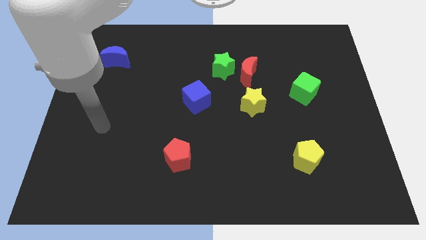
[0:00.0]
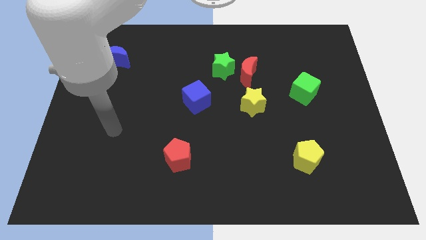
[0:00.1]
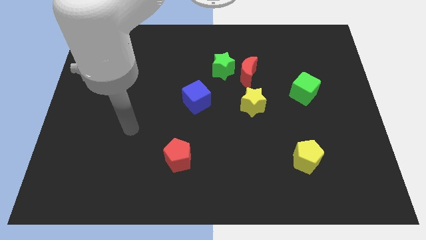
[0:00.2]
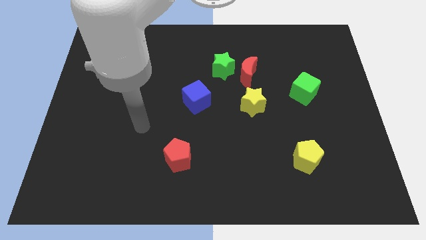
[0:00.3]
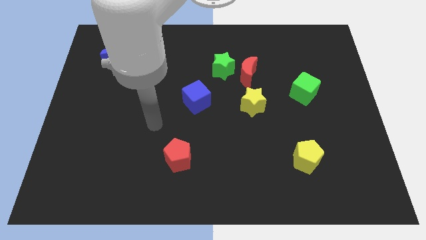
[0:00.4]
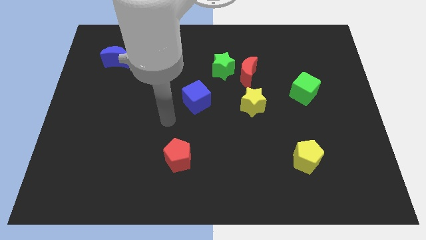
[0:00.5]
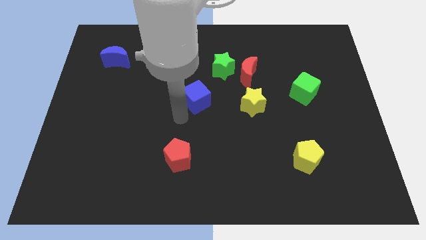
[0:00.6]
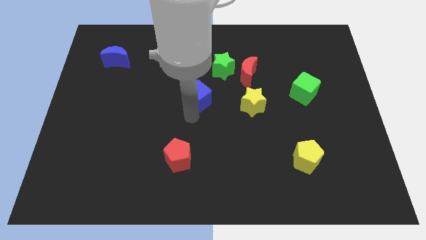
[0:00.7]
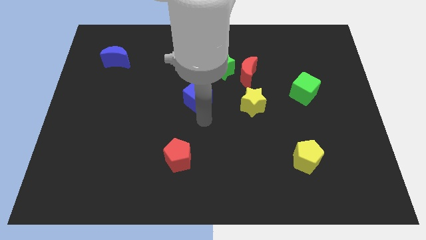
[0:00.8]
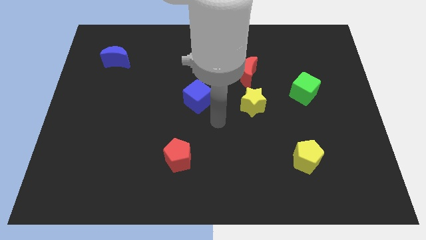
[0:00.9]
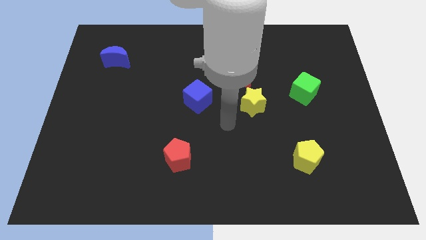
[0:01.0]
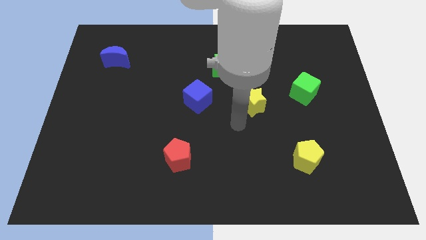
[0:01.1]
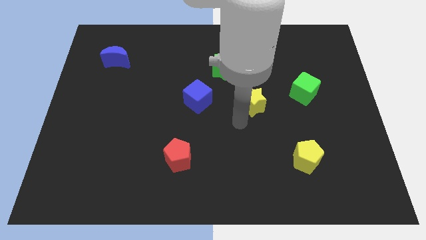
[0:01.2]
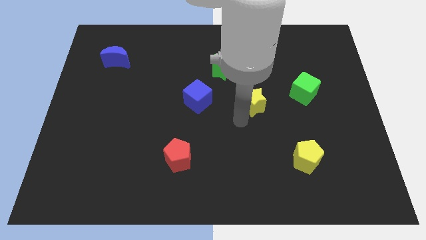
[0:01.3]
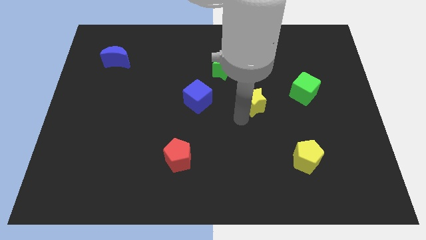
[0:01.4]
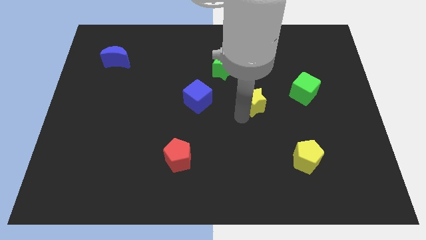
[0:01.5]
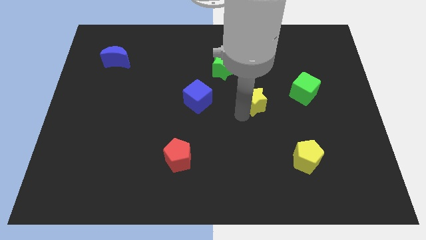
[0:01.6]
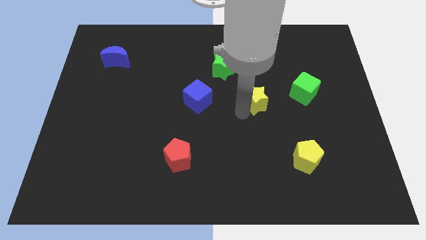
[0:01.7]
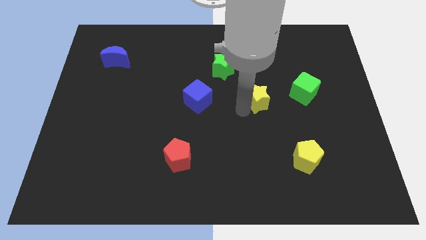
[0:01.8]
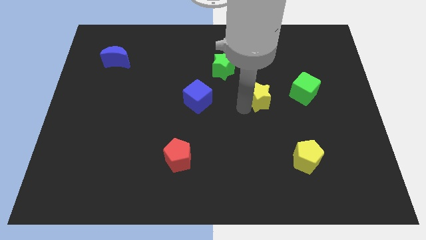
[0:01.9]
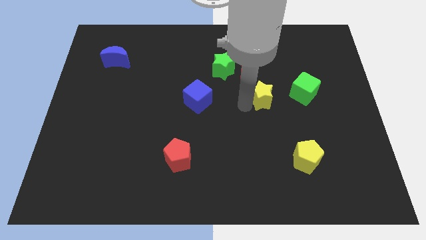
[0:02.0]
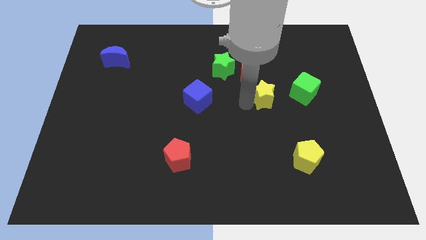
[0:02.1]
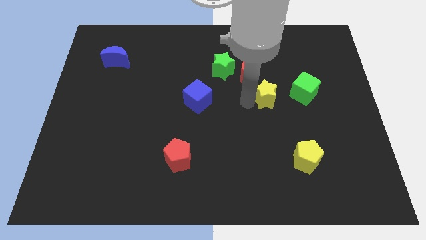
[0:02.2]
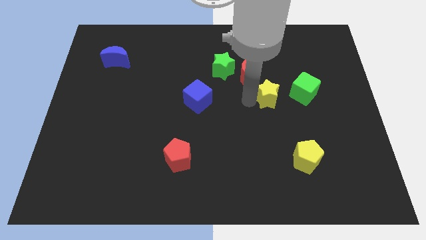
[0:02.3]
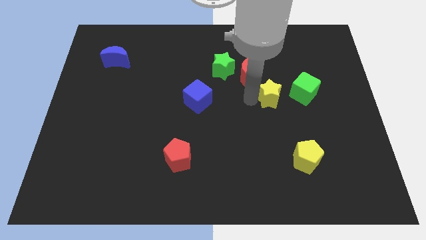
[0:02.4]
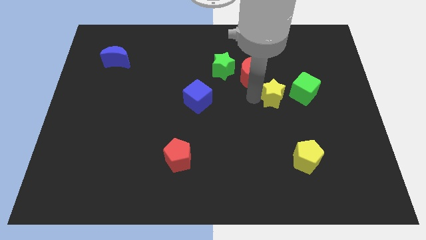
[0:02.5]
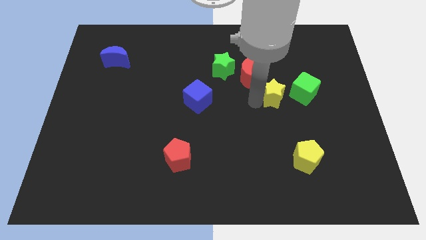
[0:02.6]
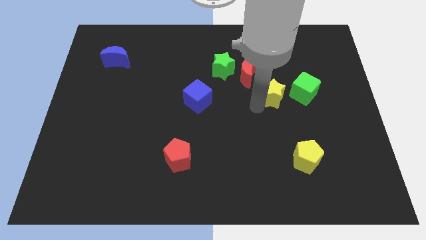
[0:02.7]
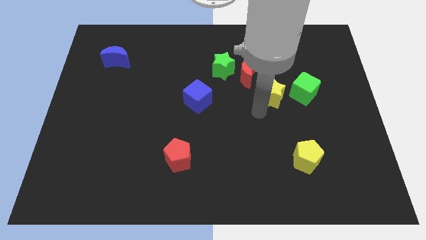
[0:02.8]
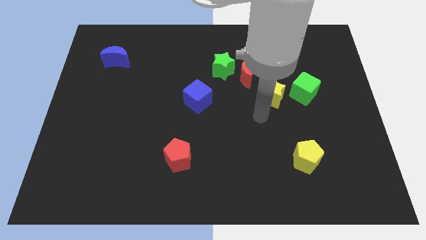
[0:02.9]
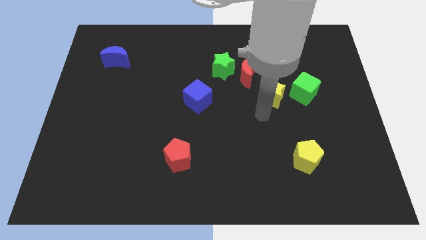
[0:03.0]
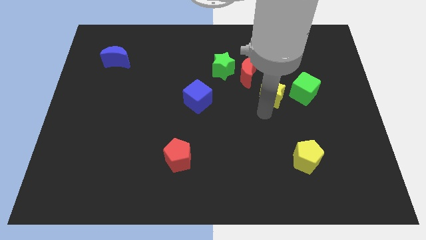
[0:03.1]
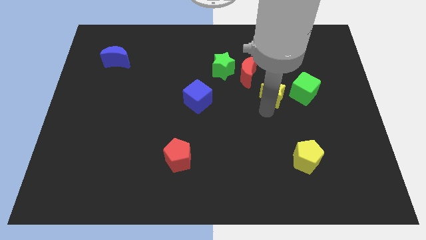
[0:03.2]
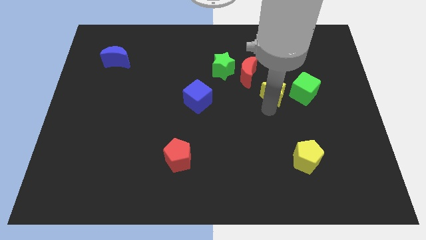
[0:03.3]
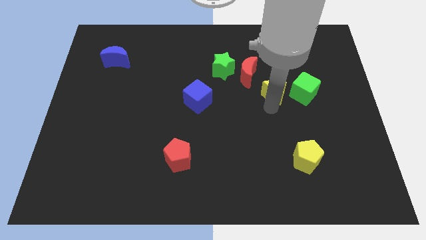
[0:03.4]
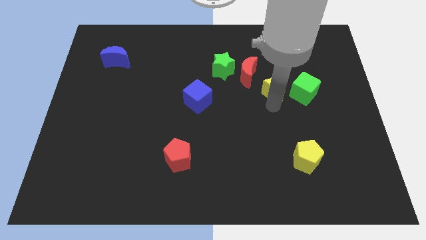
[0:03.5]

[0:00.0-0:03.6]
slightly move the yellow star upwards and right

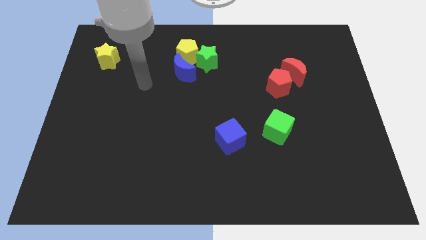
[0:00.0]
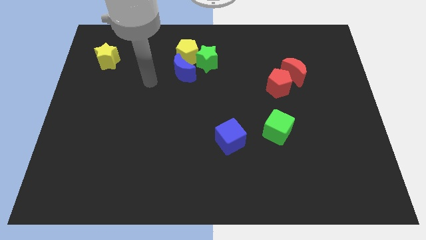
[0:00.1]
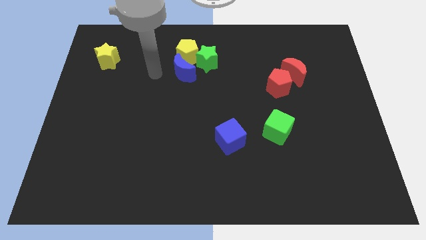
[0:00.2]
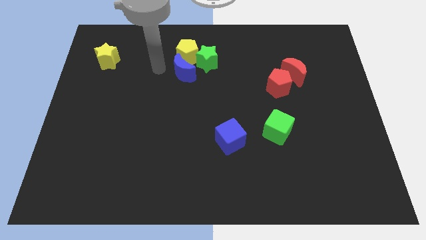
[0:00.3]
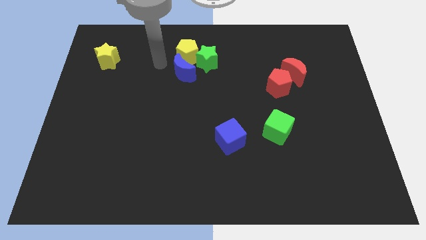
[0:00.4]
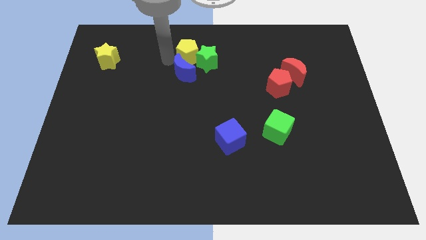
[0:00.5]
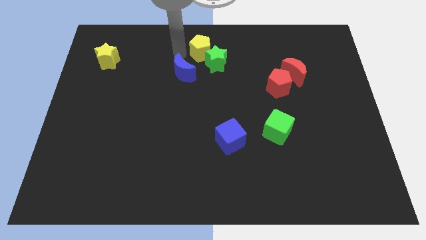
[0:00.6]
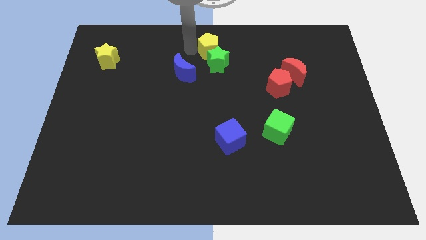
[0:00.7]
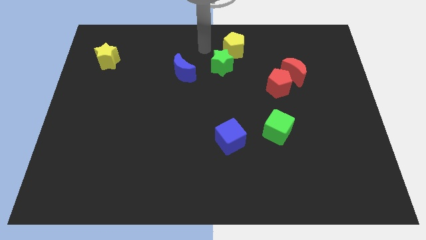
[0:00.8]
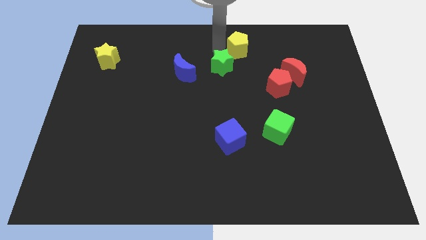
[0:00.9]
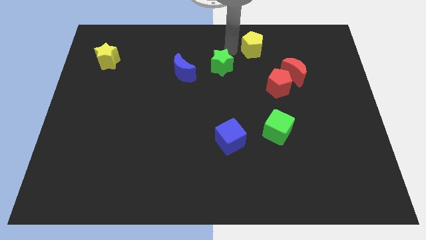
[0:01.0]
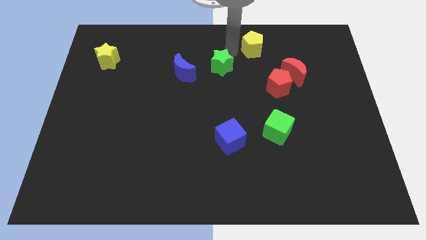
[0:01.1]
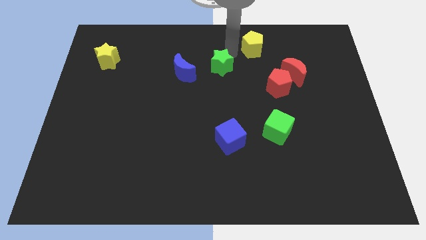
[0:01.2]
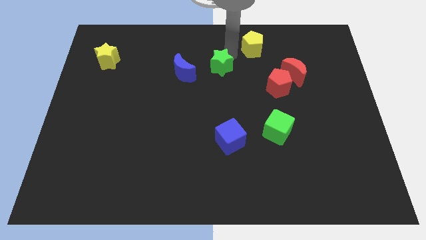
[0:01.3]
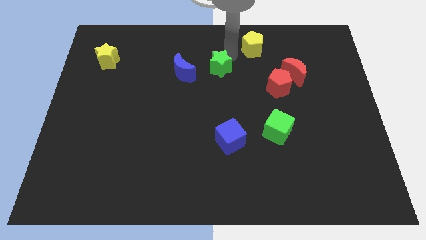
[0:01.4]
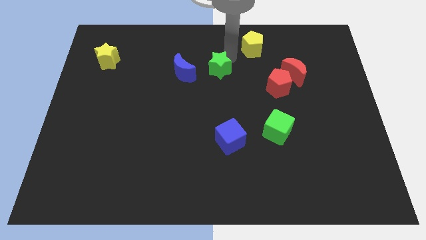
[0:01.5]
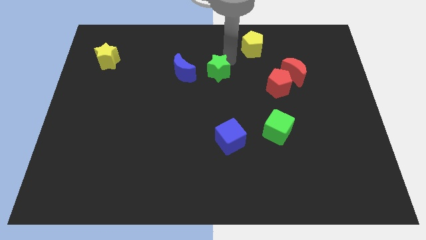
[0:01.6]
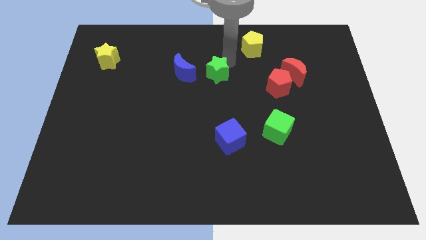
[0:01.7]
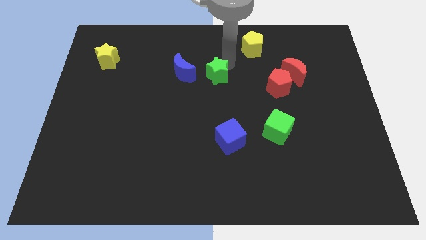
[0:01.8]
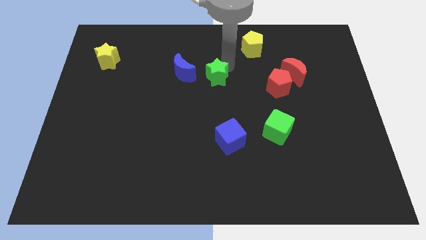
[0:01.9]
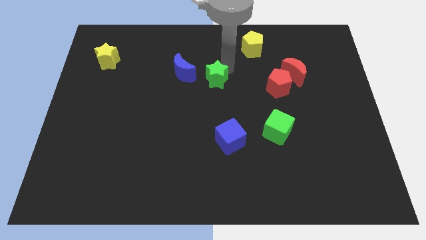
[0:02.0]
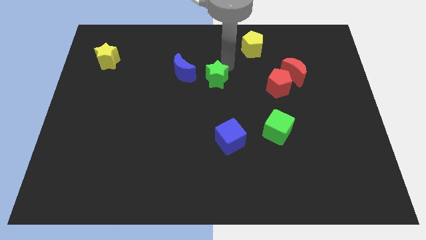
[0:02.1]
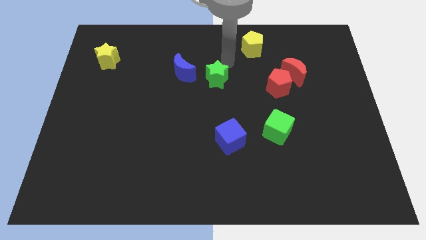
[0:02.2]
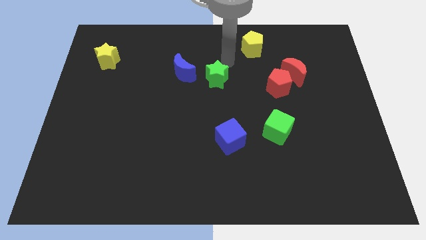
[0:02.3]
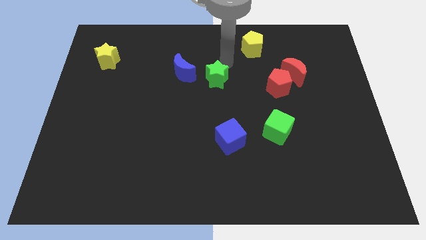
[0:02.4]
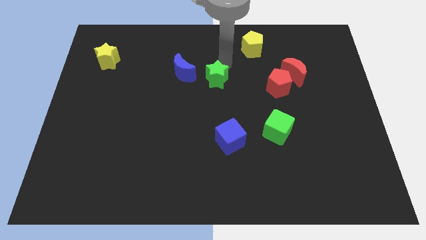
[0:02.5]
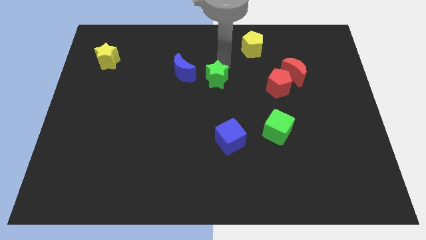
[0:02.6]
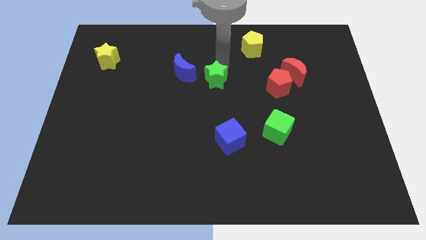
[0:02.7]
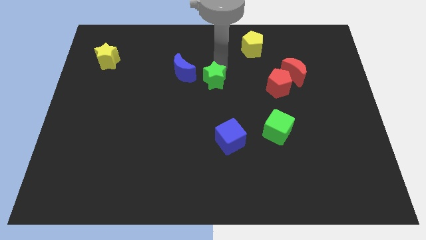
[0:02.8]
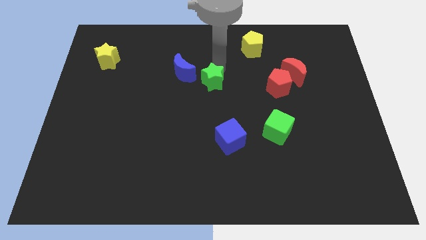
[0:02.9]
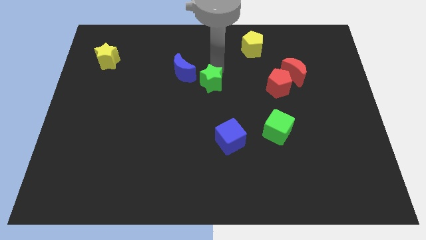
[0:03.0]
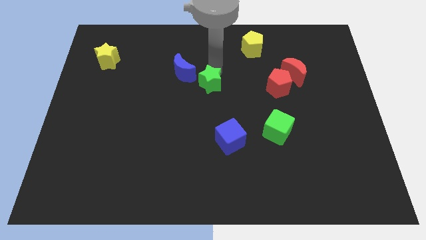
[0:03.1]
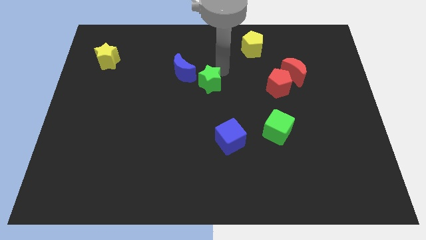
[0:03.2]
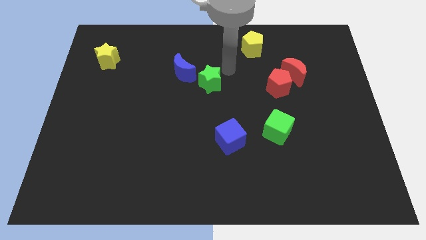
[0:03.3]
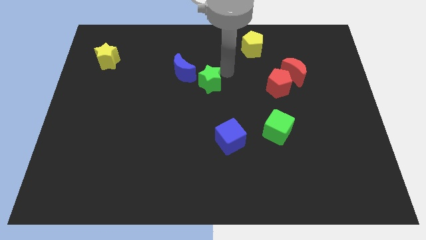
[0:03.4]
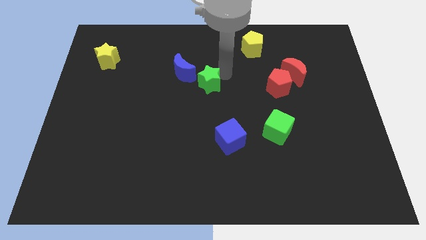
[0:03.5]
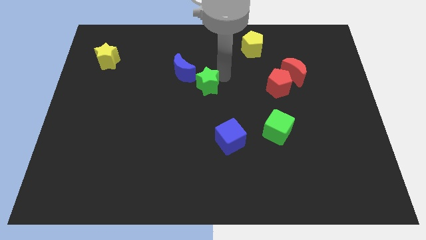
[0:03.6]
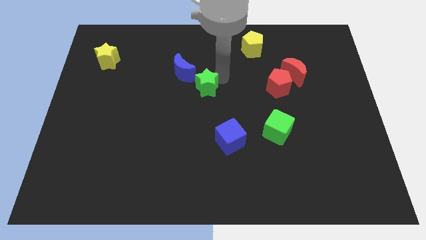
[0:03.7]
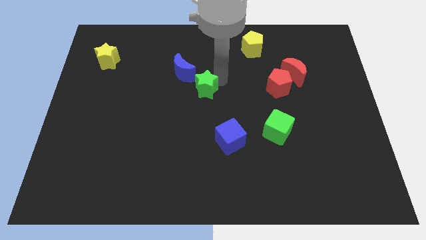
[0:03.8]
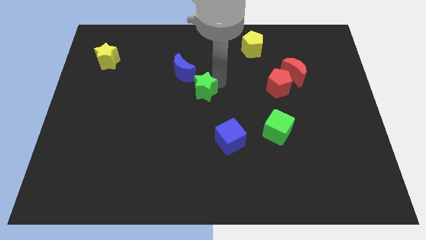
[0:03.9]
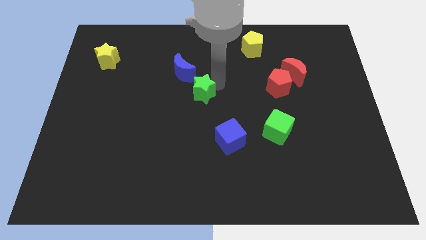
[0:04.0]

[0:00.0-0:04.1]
slide the green star a little down and then to the left

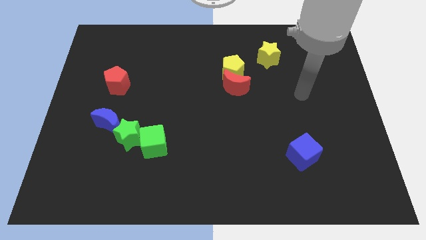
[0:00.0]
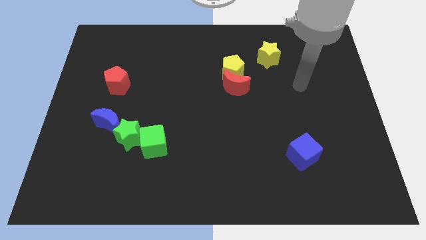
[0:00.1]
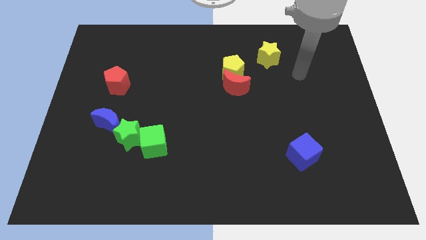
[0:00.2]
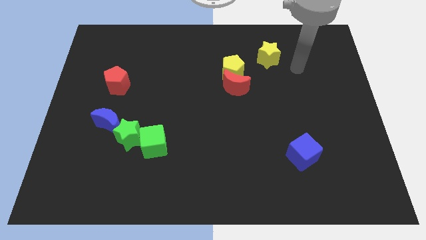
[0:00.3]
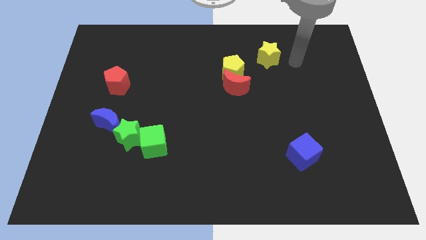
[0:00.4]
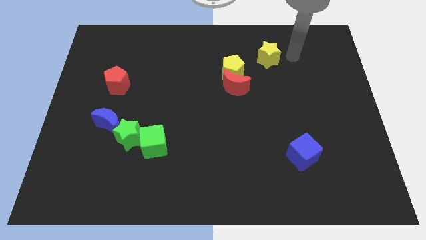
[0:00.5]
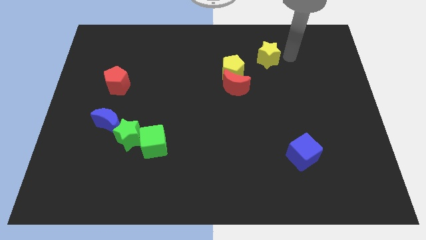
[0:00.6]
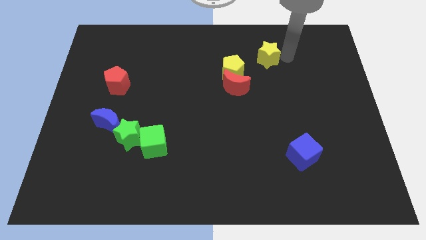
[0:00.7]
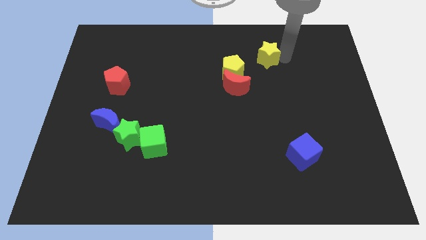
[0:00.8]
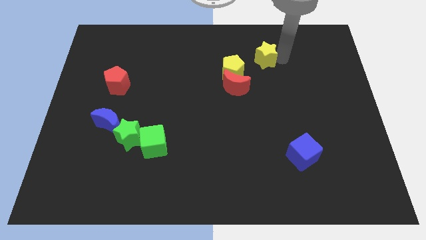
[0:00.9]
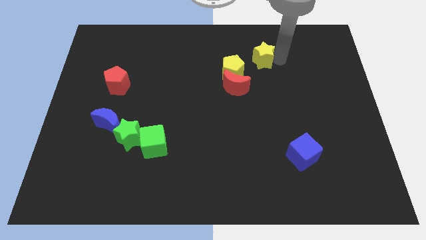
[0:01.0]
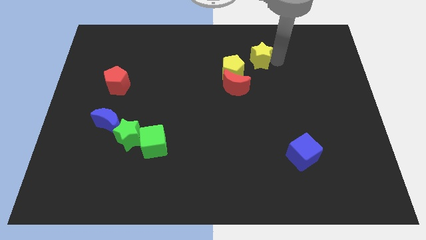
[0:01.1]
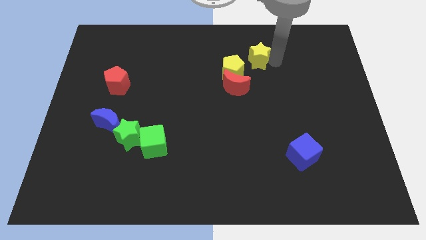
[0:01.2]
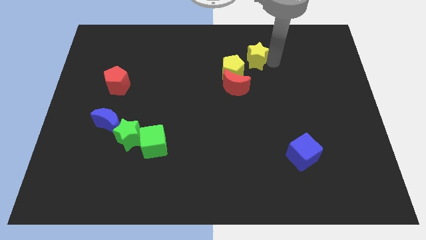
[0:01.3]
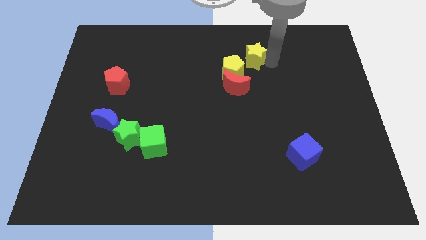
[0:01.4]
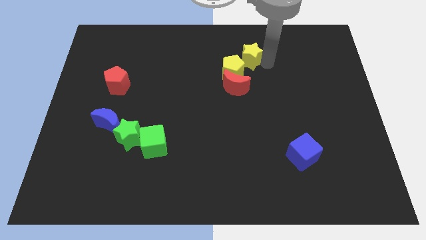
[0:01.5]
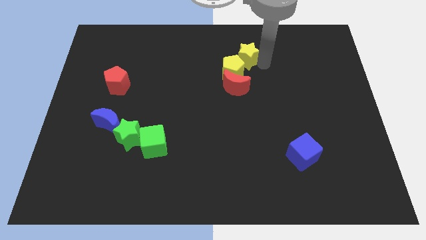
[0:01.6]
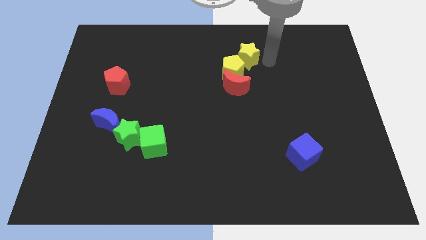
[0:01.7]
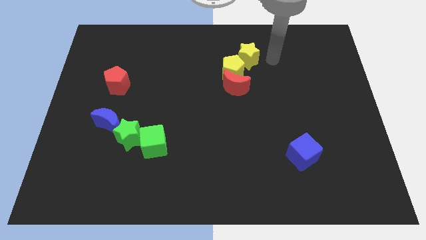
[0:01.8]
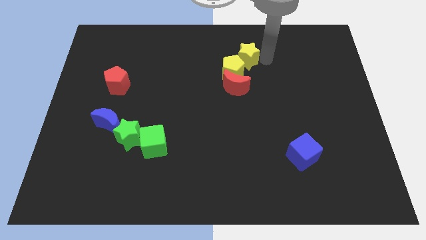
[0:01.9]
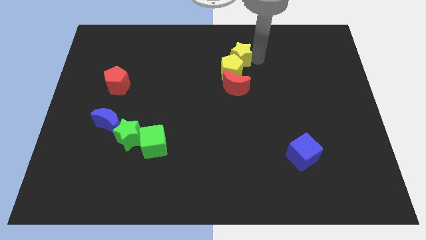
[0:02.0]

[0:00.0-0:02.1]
slightly push the yellow star left
